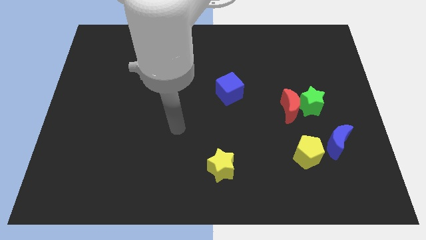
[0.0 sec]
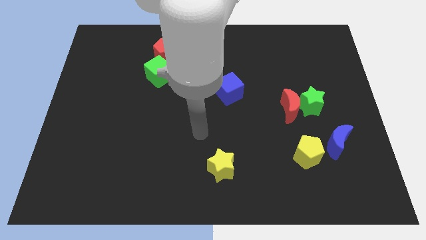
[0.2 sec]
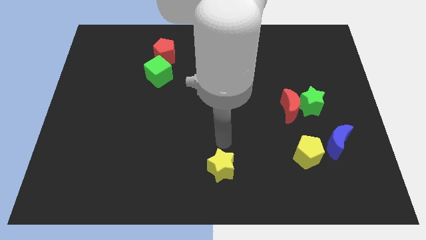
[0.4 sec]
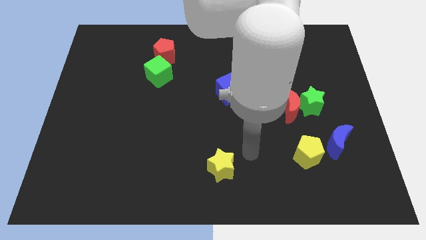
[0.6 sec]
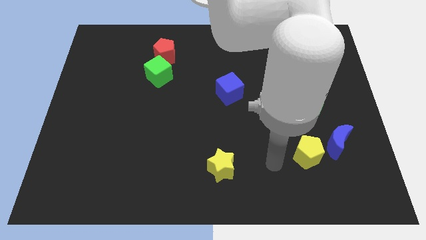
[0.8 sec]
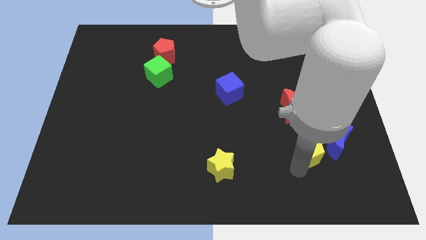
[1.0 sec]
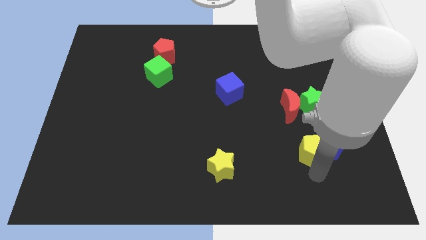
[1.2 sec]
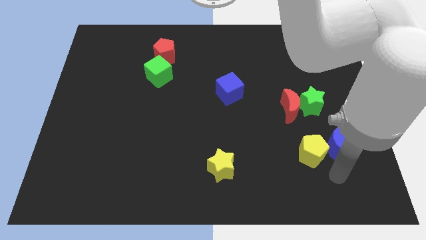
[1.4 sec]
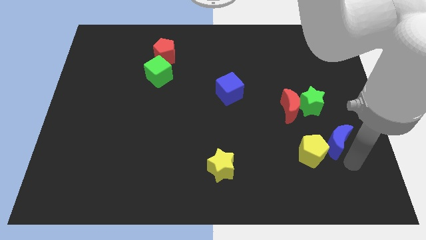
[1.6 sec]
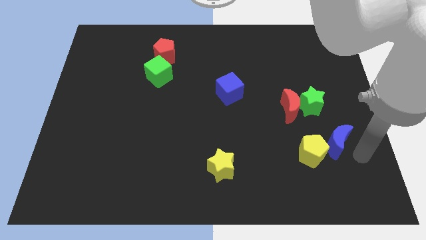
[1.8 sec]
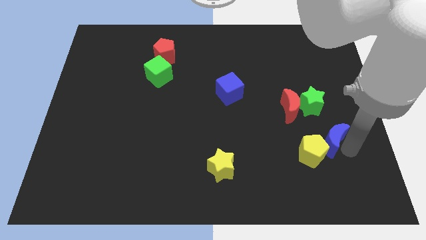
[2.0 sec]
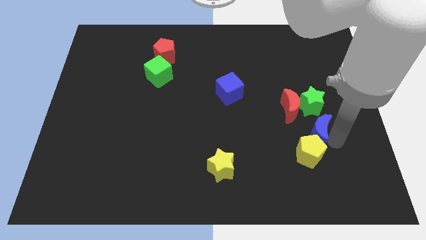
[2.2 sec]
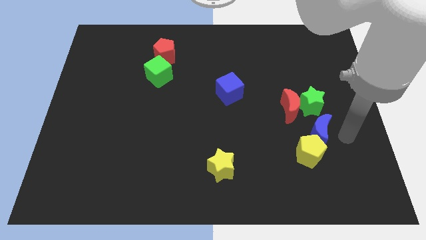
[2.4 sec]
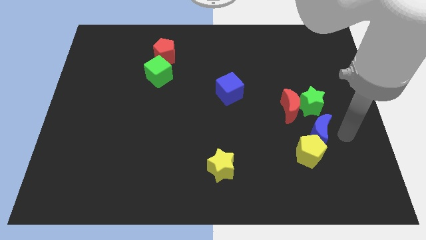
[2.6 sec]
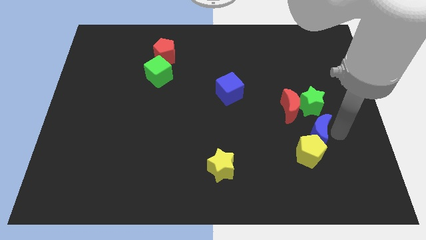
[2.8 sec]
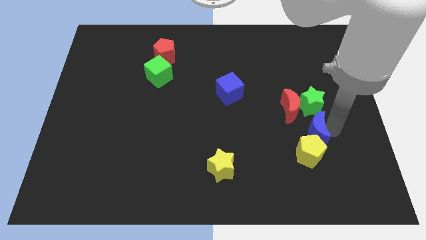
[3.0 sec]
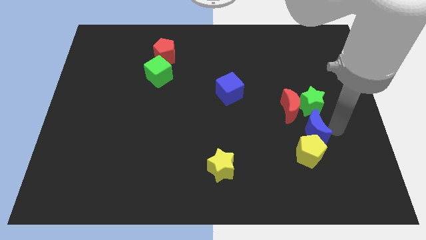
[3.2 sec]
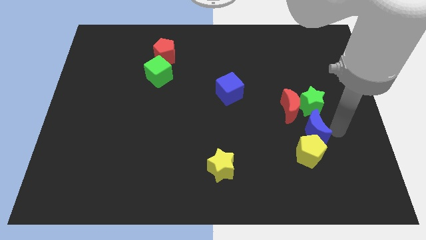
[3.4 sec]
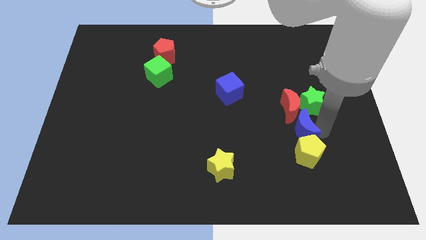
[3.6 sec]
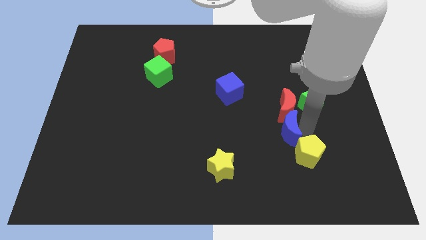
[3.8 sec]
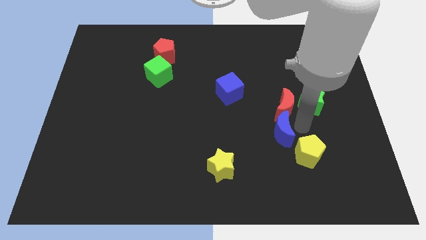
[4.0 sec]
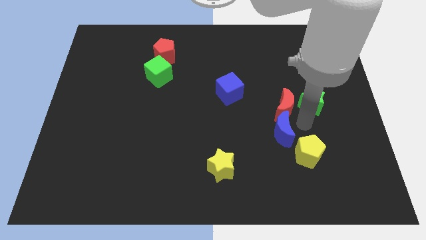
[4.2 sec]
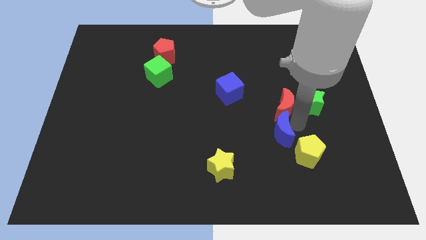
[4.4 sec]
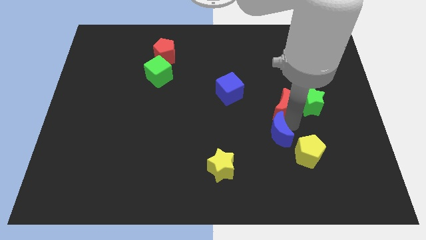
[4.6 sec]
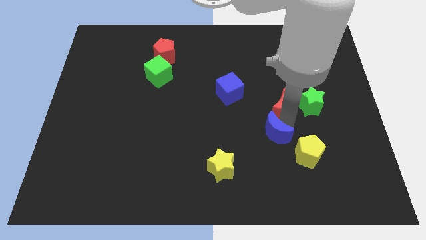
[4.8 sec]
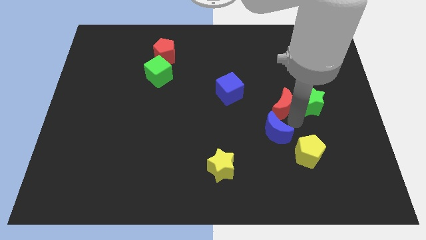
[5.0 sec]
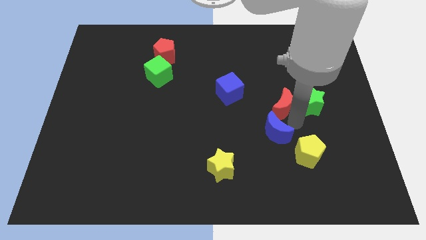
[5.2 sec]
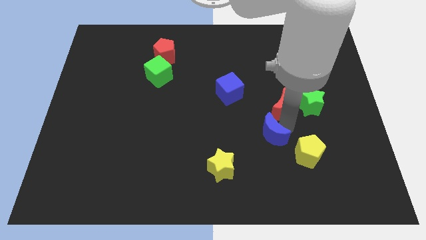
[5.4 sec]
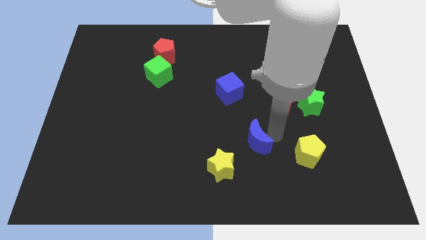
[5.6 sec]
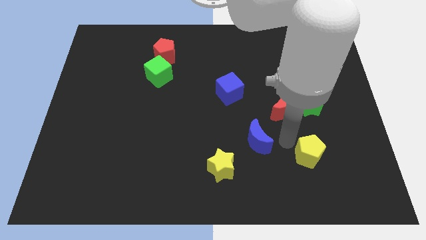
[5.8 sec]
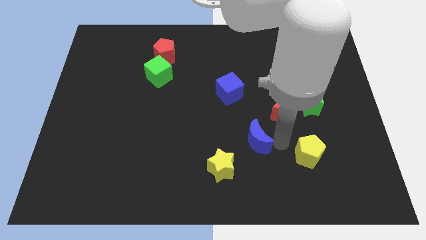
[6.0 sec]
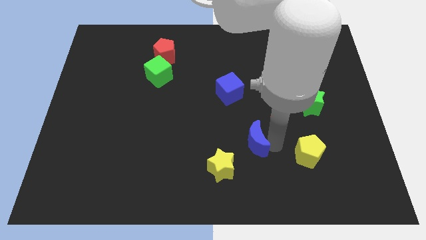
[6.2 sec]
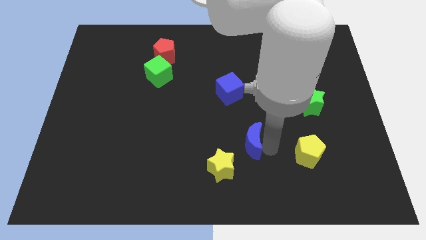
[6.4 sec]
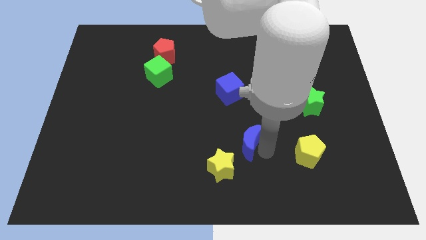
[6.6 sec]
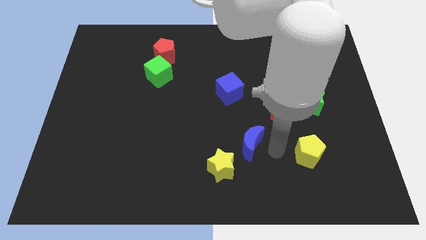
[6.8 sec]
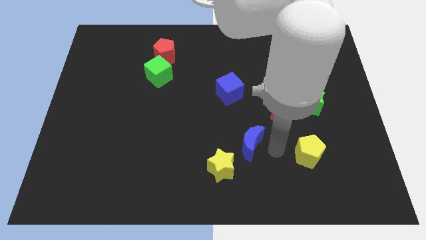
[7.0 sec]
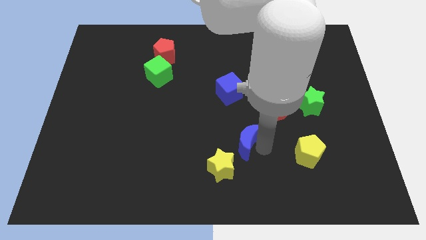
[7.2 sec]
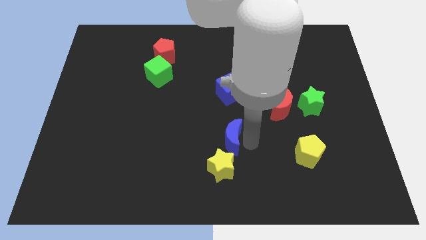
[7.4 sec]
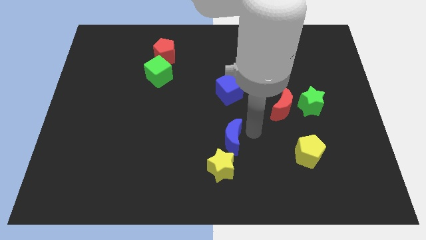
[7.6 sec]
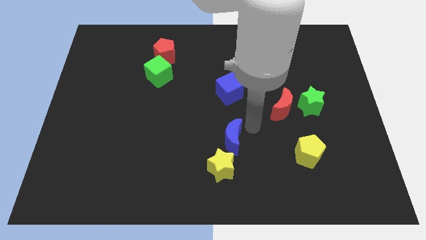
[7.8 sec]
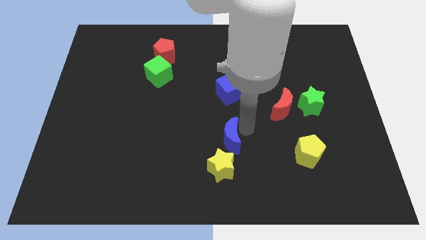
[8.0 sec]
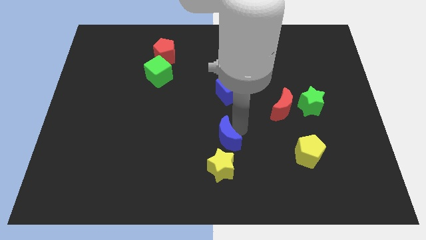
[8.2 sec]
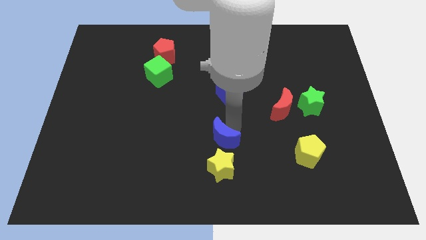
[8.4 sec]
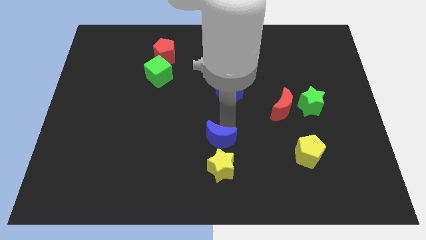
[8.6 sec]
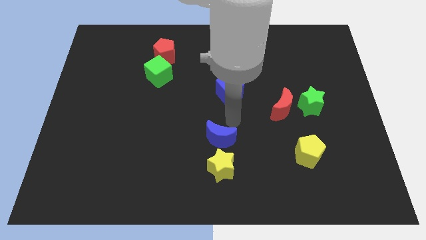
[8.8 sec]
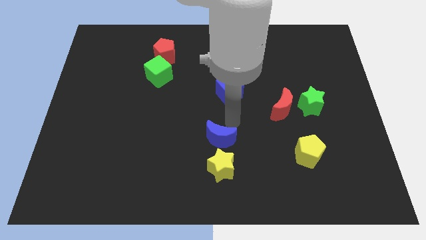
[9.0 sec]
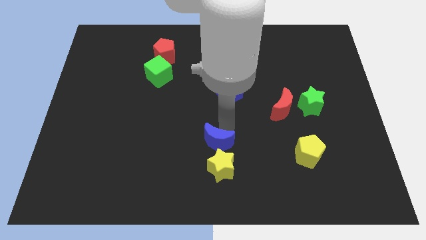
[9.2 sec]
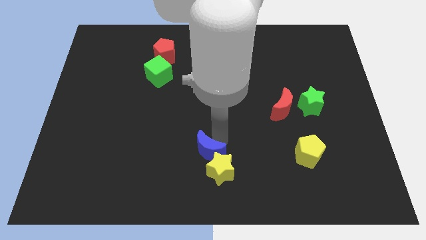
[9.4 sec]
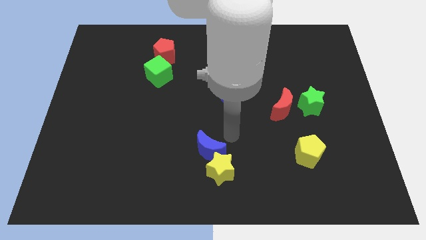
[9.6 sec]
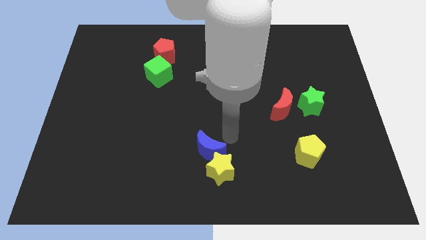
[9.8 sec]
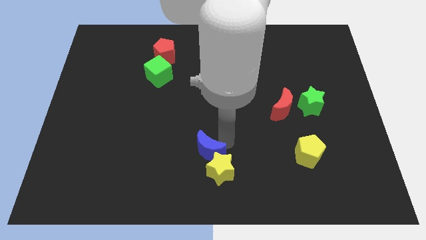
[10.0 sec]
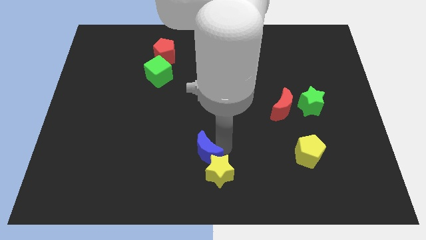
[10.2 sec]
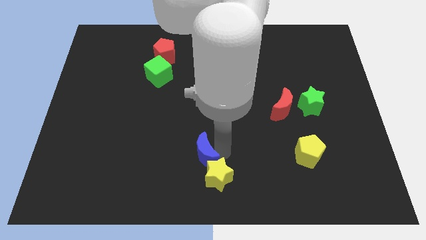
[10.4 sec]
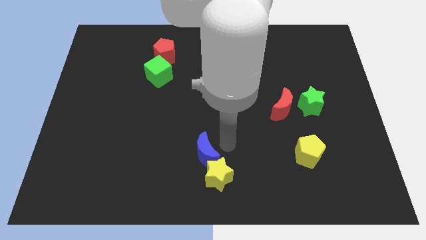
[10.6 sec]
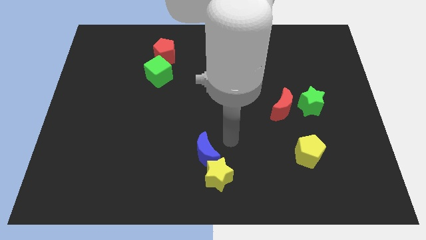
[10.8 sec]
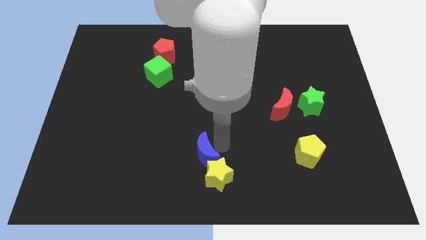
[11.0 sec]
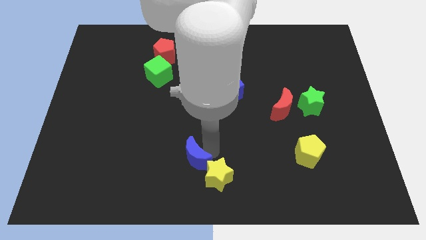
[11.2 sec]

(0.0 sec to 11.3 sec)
push the blue moon to the left side of the yellow star
